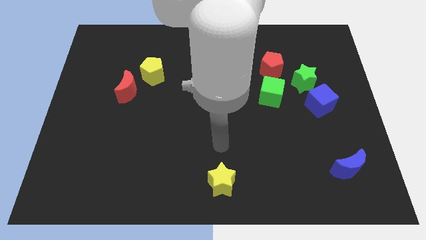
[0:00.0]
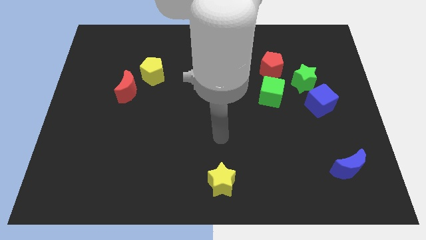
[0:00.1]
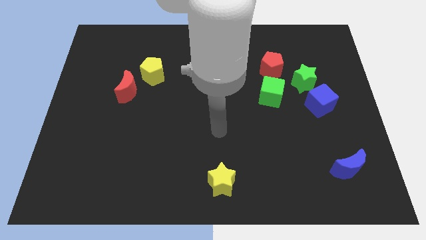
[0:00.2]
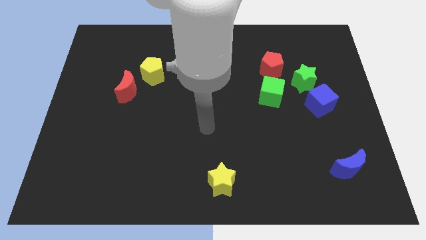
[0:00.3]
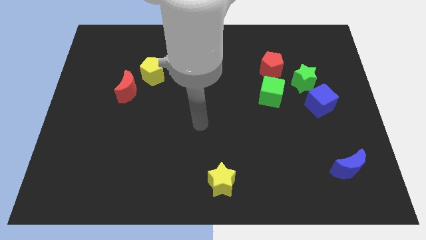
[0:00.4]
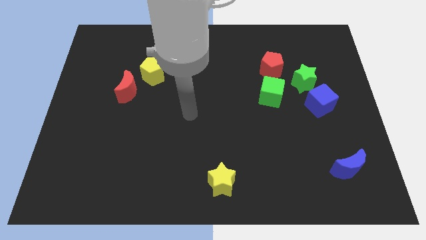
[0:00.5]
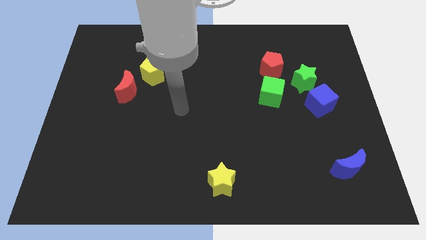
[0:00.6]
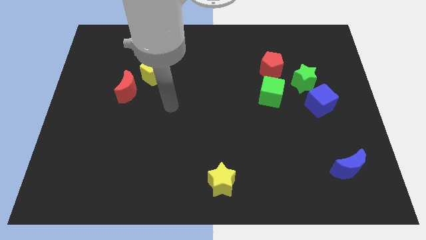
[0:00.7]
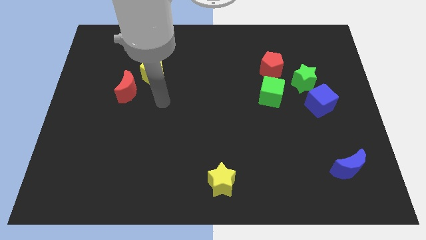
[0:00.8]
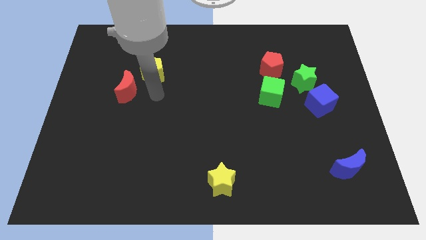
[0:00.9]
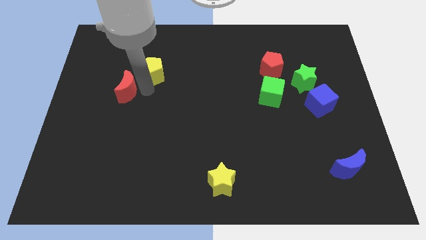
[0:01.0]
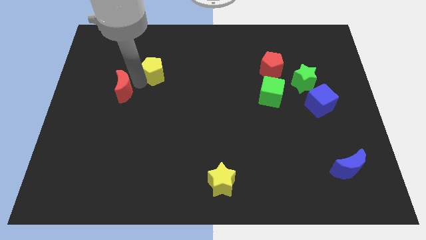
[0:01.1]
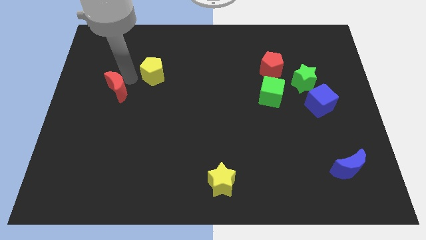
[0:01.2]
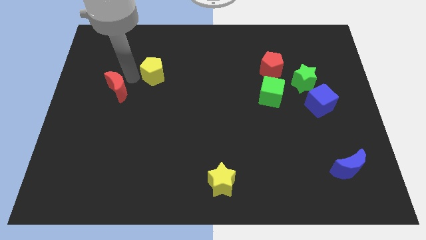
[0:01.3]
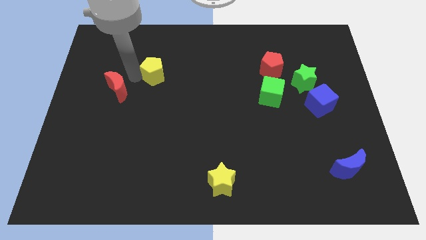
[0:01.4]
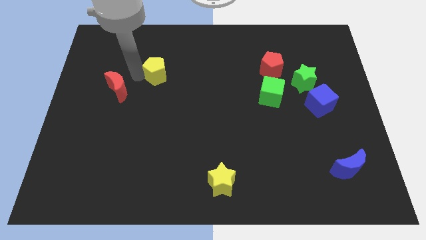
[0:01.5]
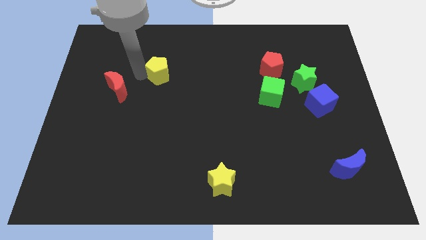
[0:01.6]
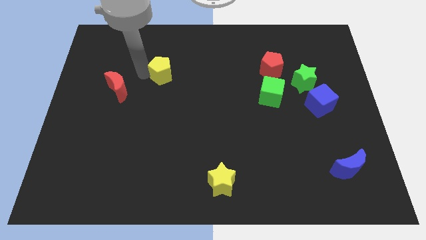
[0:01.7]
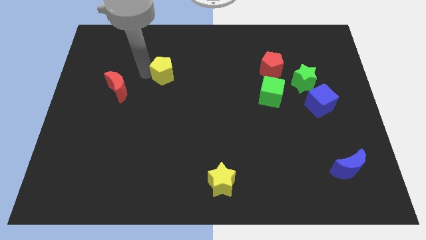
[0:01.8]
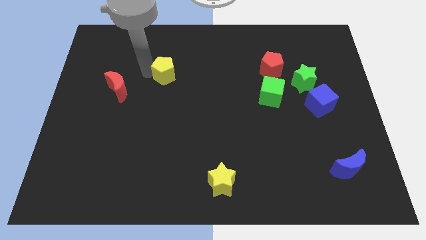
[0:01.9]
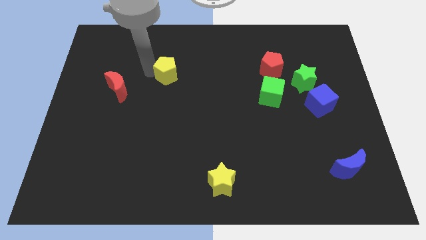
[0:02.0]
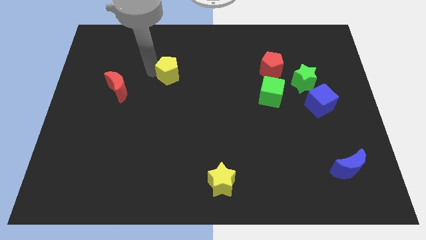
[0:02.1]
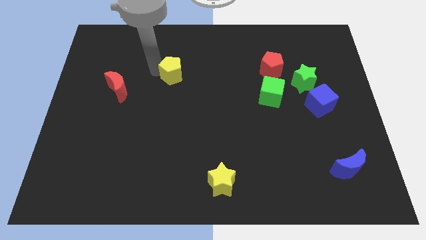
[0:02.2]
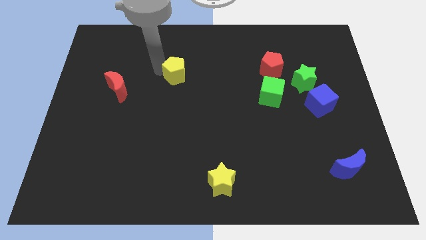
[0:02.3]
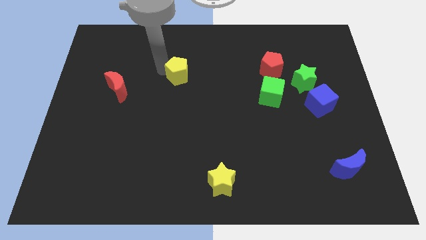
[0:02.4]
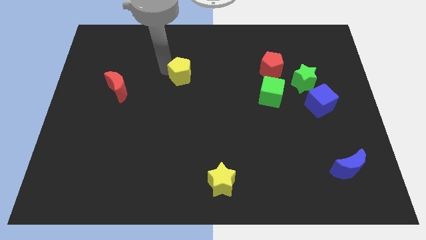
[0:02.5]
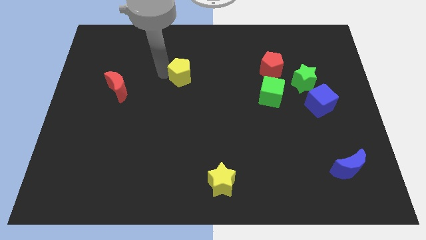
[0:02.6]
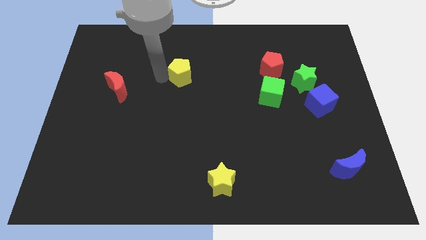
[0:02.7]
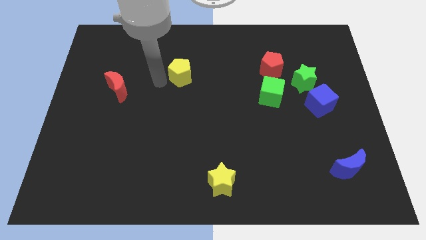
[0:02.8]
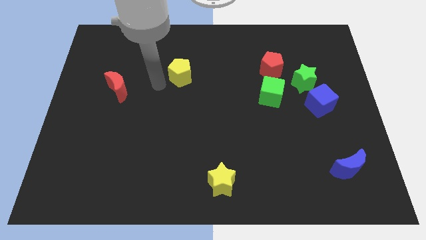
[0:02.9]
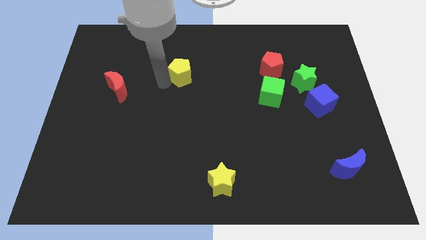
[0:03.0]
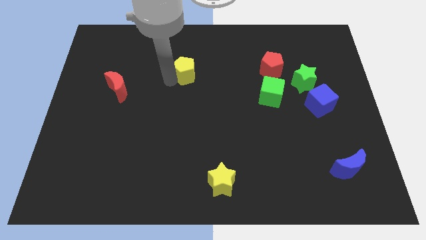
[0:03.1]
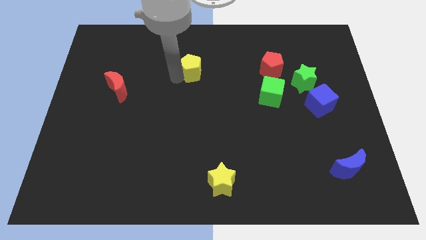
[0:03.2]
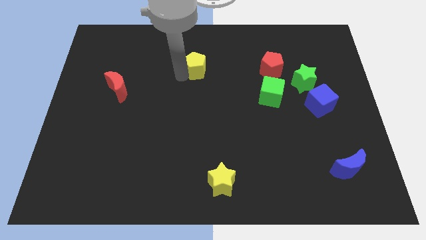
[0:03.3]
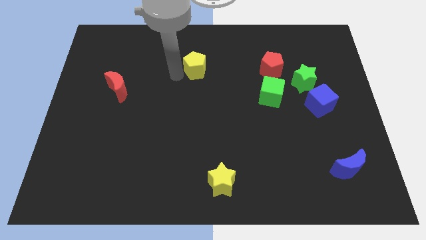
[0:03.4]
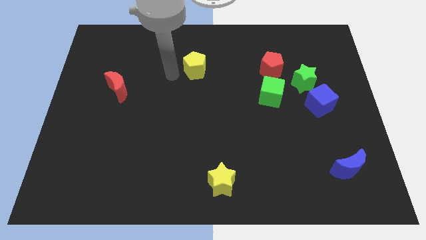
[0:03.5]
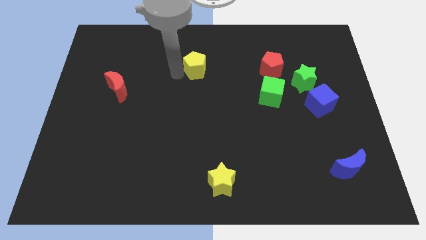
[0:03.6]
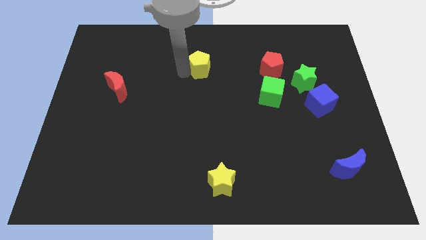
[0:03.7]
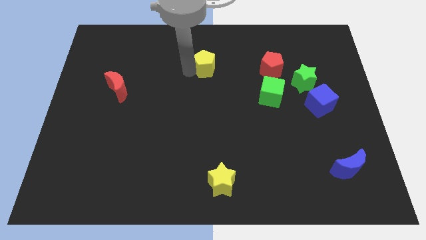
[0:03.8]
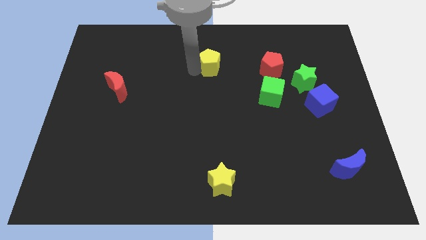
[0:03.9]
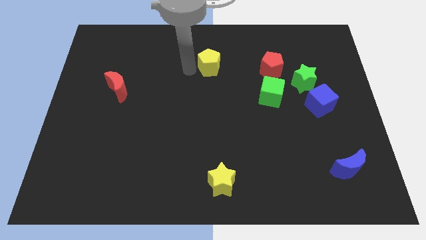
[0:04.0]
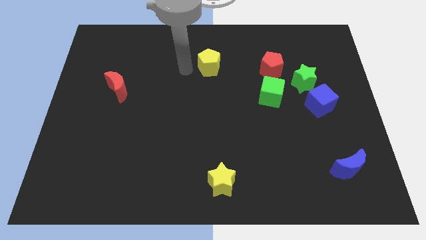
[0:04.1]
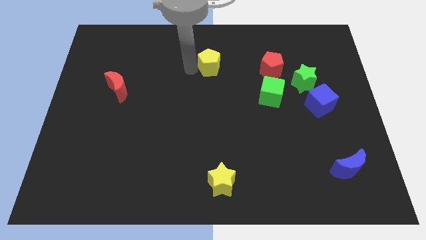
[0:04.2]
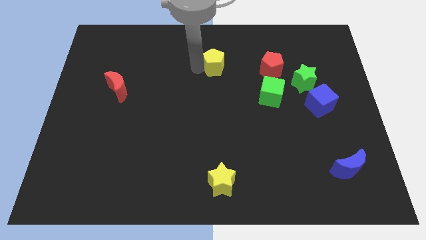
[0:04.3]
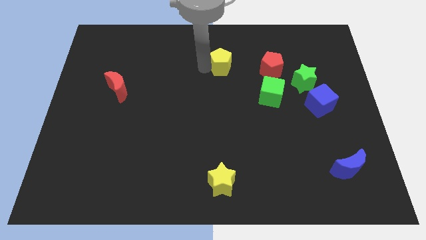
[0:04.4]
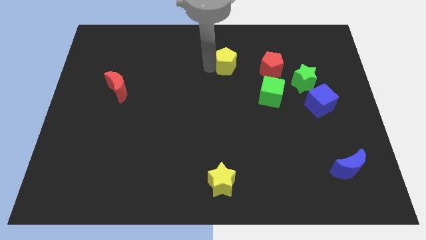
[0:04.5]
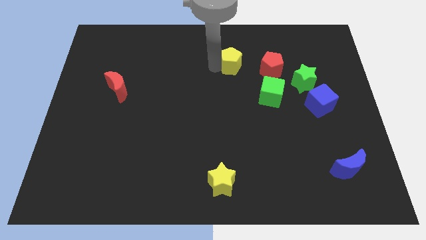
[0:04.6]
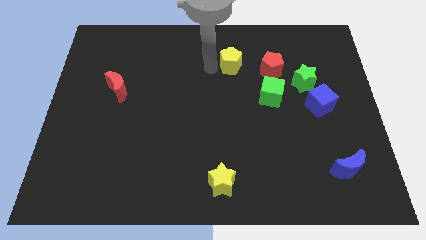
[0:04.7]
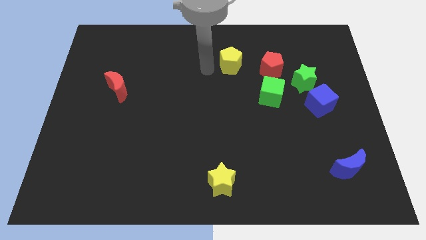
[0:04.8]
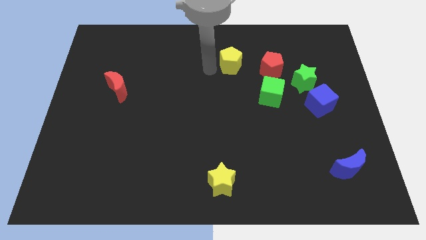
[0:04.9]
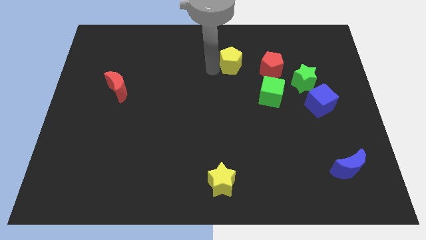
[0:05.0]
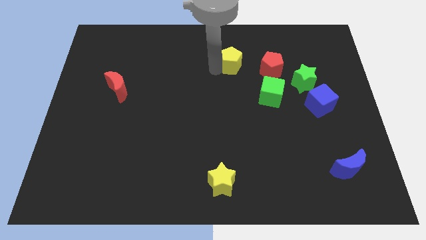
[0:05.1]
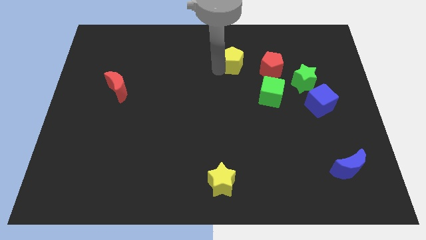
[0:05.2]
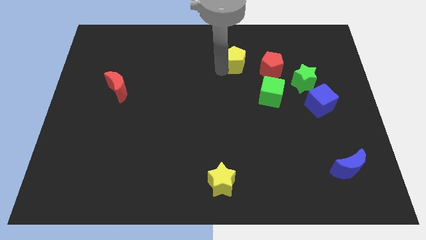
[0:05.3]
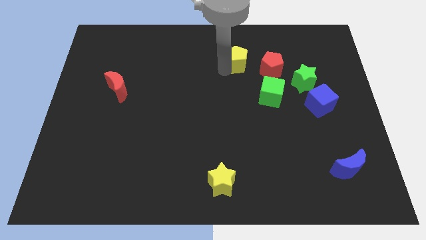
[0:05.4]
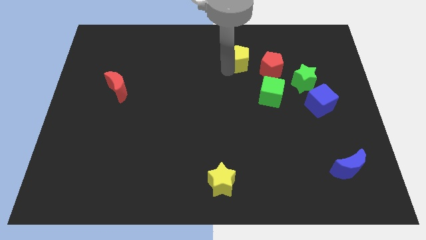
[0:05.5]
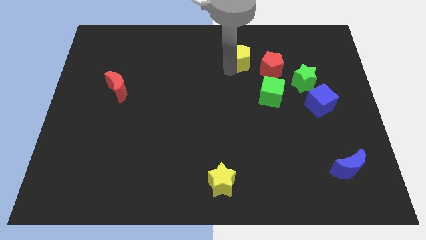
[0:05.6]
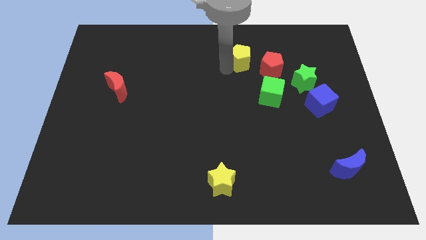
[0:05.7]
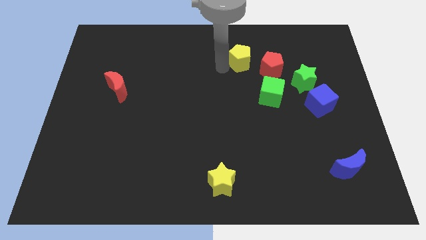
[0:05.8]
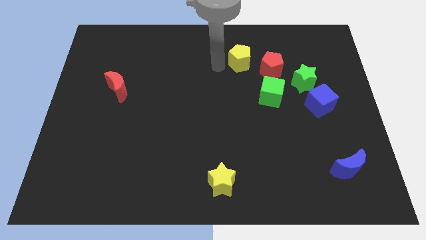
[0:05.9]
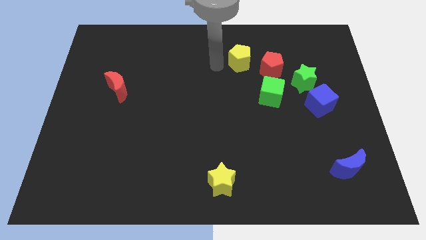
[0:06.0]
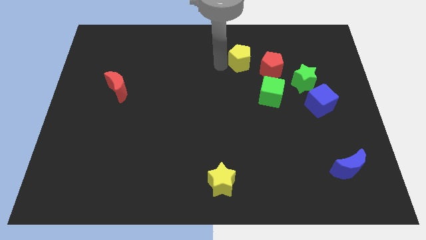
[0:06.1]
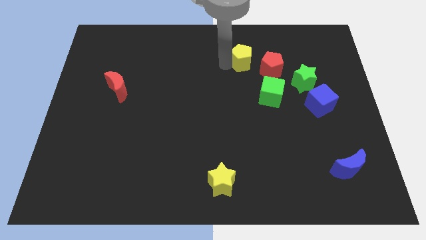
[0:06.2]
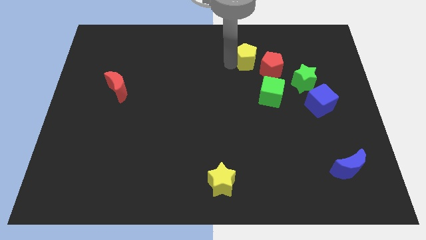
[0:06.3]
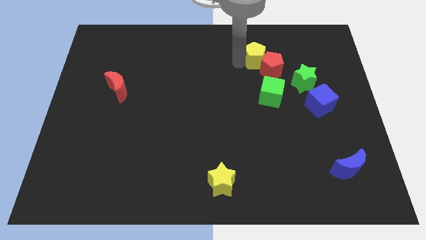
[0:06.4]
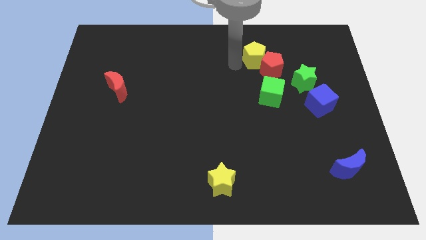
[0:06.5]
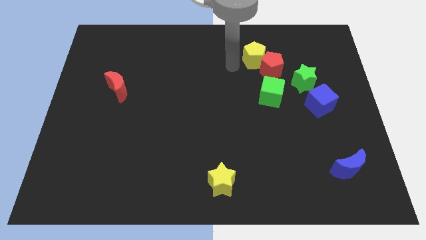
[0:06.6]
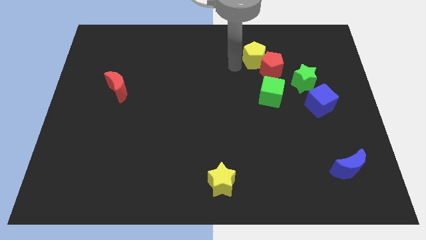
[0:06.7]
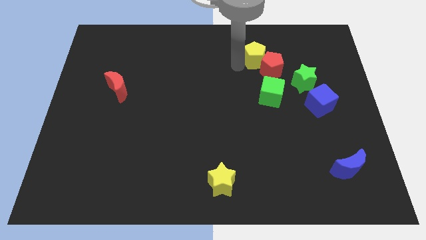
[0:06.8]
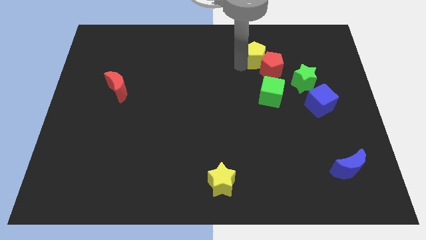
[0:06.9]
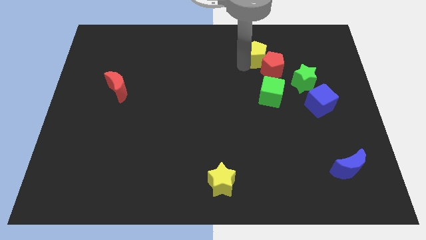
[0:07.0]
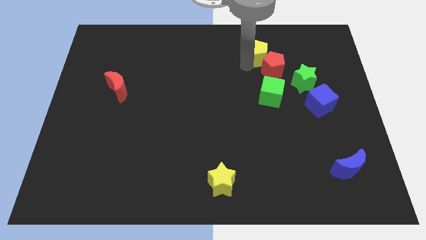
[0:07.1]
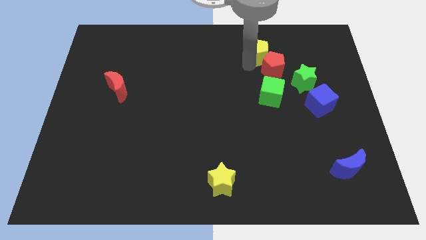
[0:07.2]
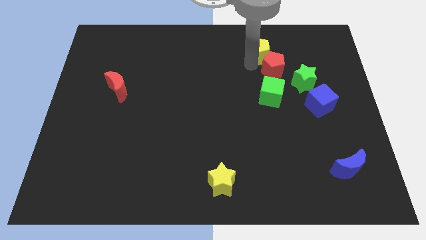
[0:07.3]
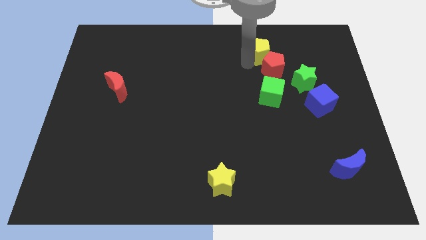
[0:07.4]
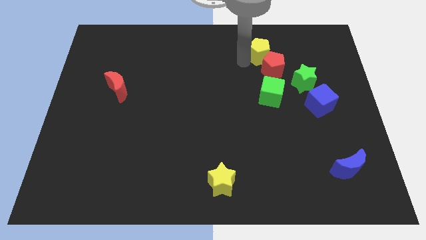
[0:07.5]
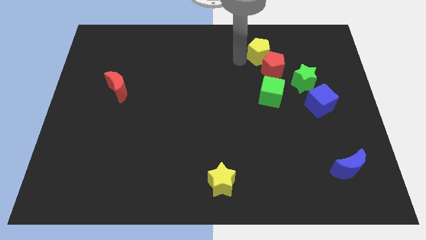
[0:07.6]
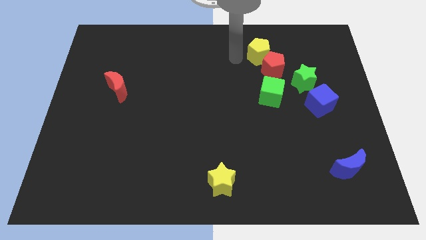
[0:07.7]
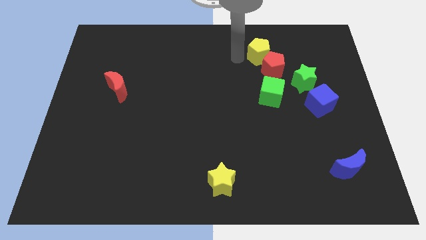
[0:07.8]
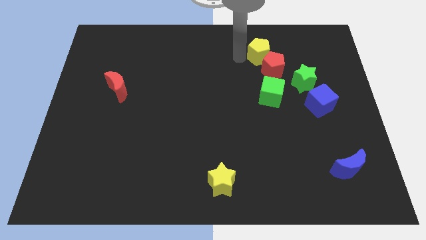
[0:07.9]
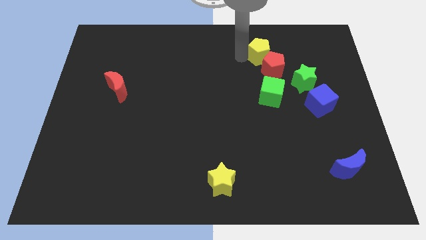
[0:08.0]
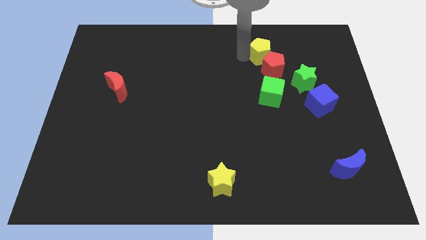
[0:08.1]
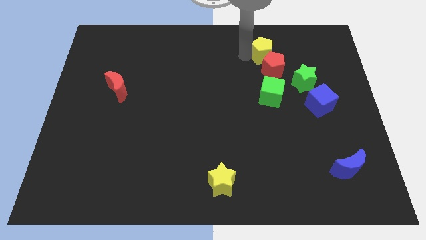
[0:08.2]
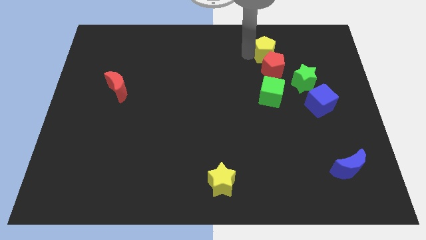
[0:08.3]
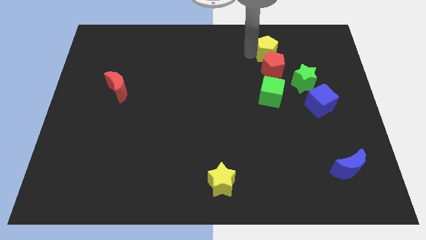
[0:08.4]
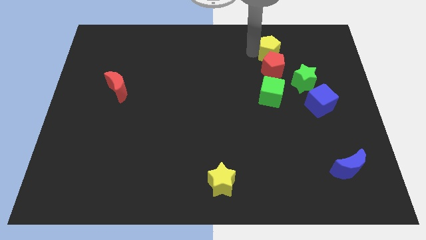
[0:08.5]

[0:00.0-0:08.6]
slide the yellow pentagon to the top right side of the red pentagon
